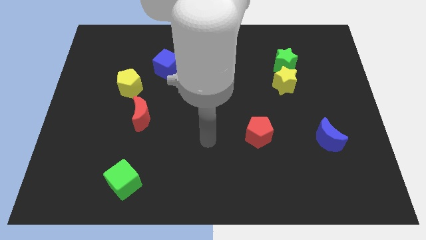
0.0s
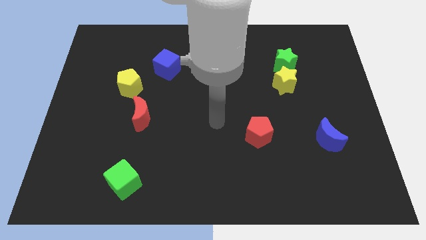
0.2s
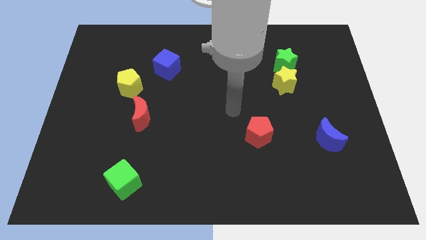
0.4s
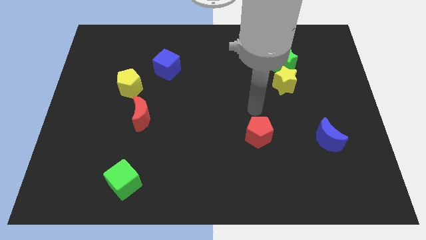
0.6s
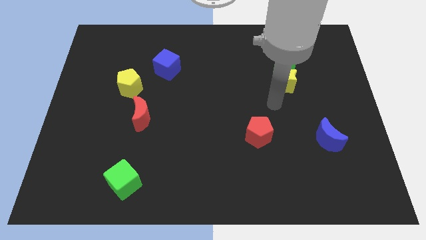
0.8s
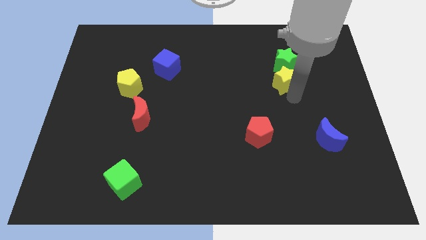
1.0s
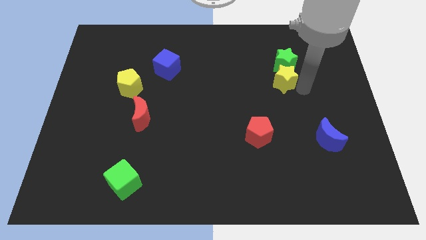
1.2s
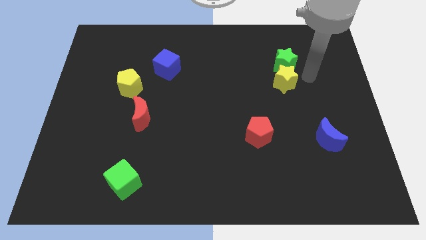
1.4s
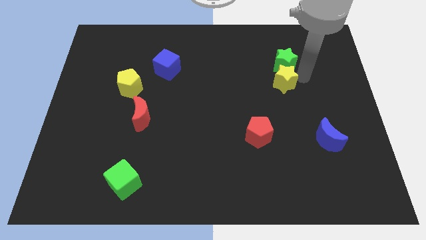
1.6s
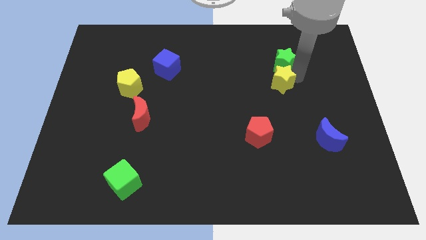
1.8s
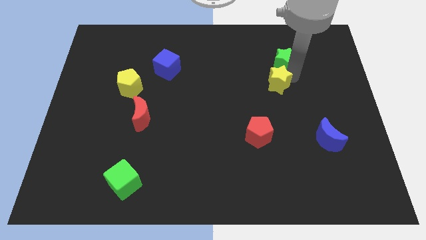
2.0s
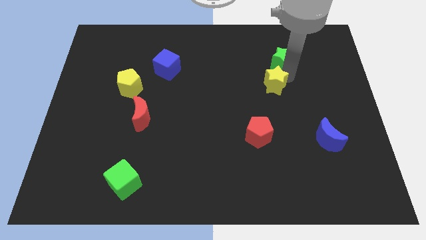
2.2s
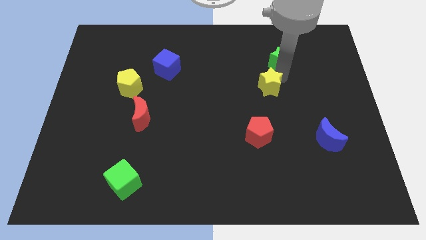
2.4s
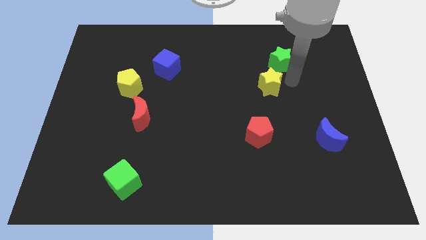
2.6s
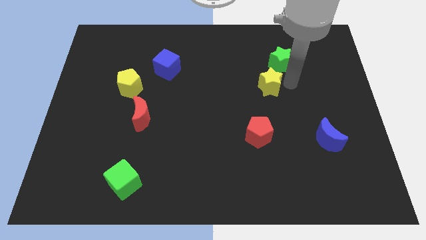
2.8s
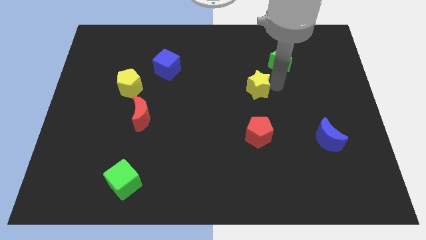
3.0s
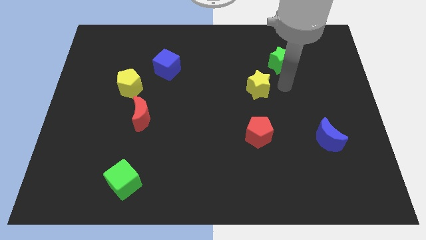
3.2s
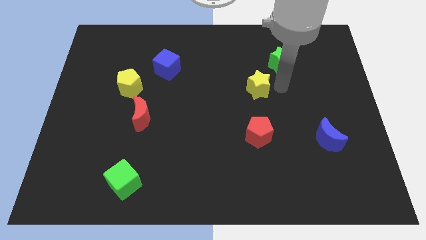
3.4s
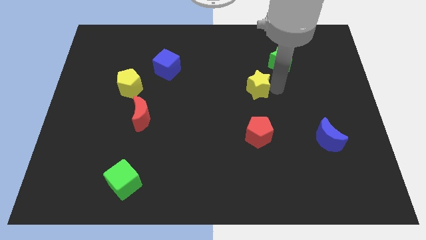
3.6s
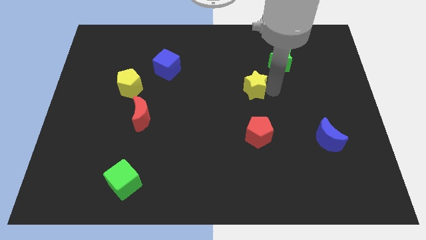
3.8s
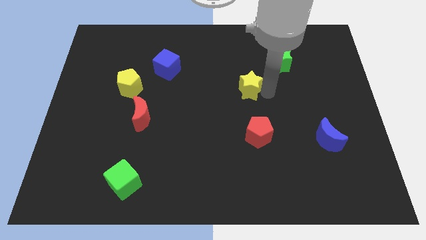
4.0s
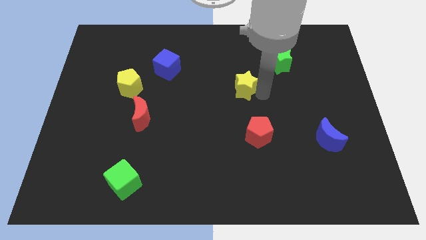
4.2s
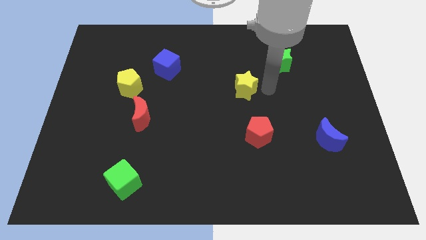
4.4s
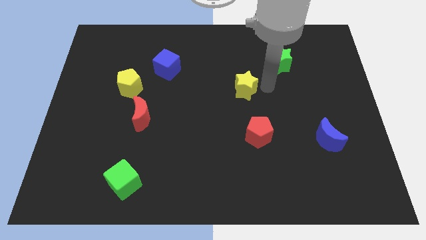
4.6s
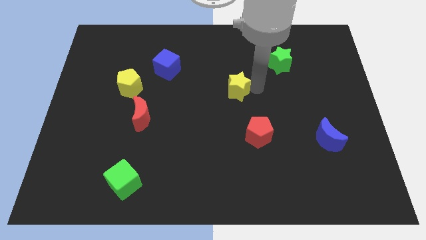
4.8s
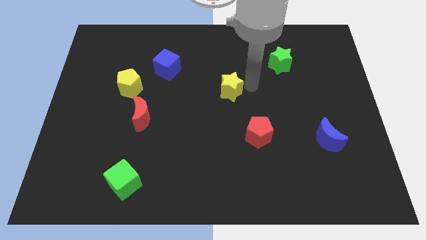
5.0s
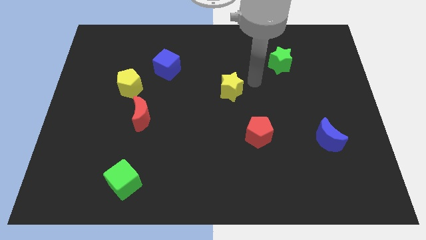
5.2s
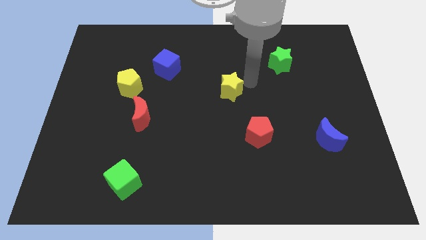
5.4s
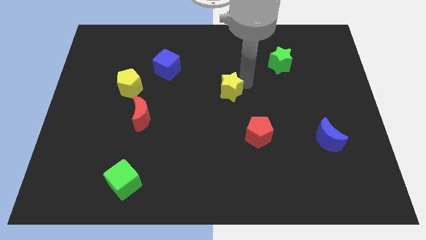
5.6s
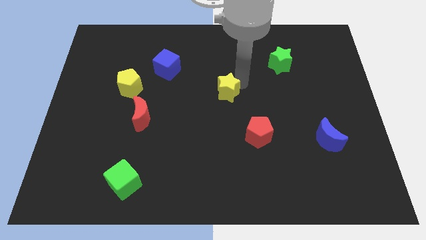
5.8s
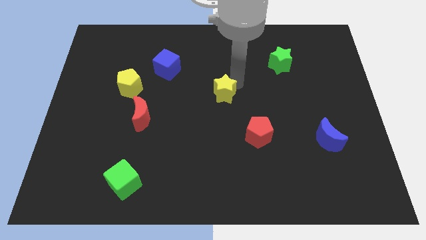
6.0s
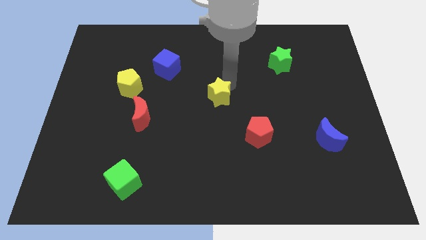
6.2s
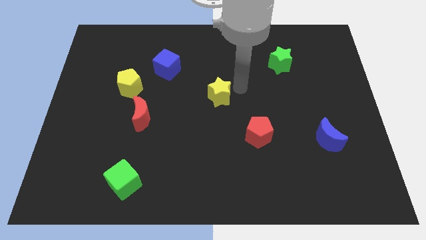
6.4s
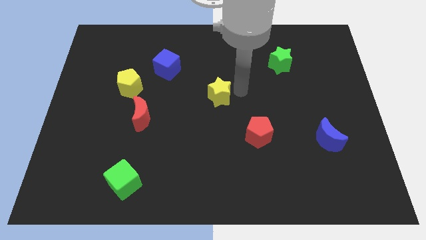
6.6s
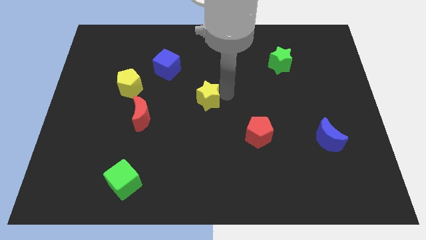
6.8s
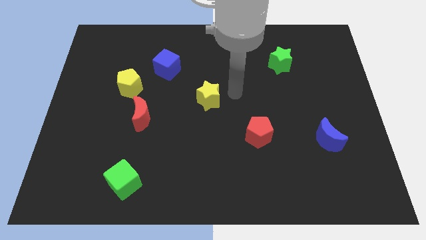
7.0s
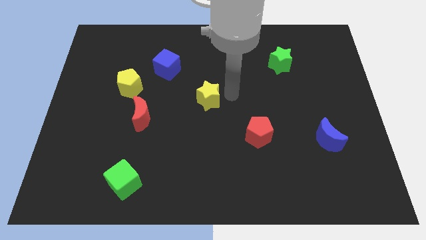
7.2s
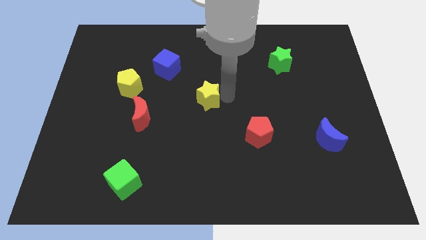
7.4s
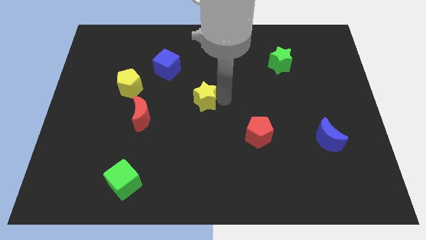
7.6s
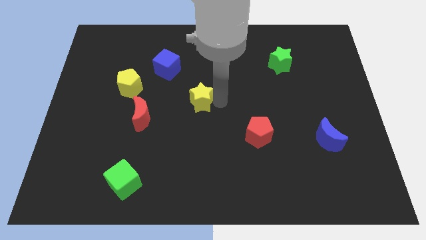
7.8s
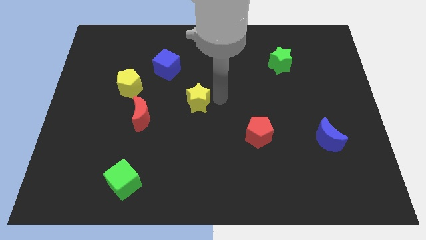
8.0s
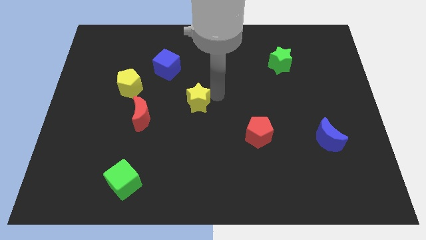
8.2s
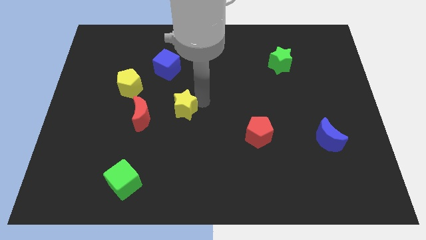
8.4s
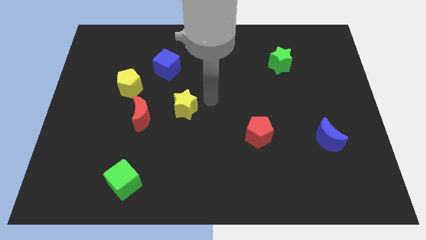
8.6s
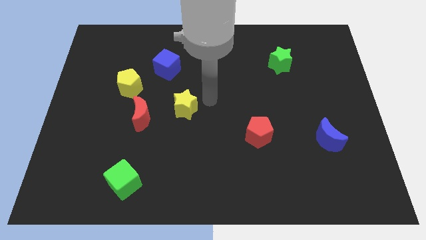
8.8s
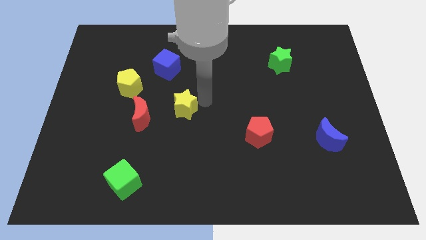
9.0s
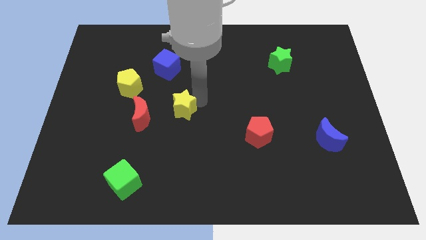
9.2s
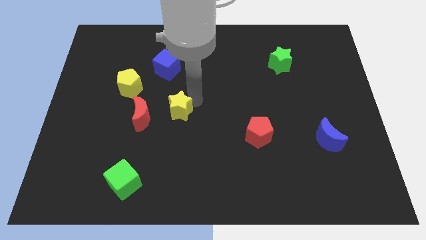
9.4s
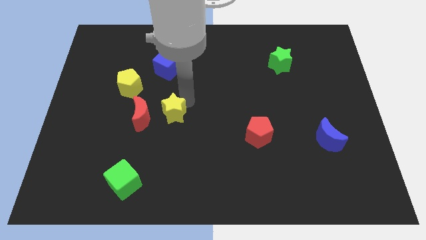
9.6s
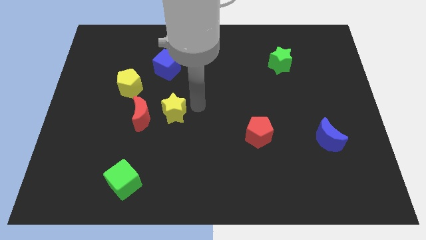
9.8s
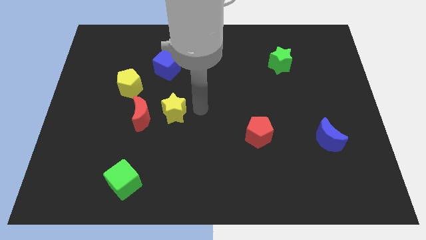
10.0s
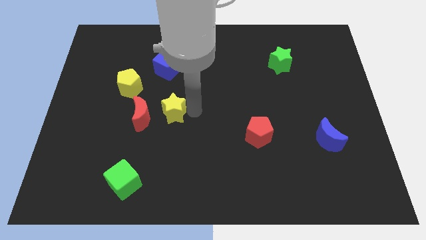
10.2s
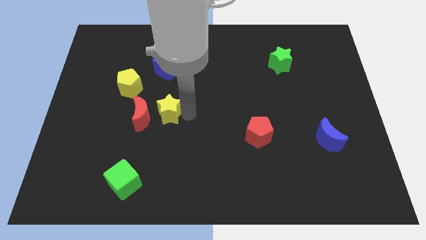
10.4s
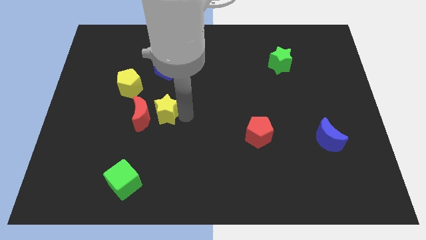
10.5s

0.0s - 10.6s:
push the yellow star close to the red moon

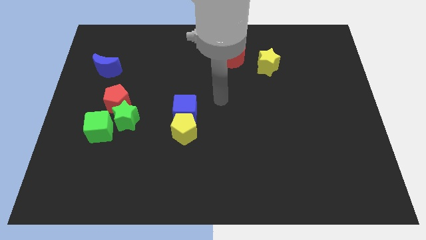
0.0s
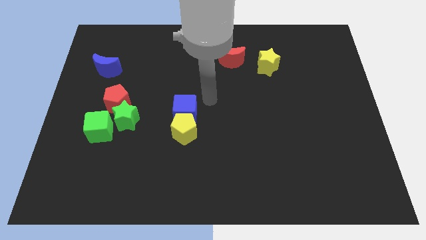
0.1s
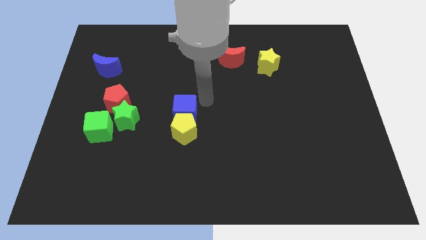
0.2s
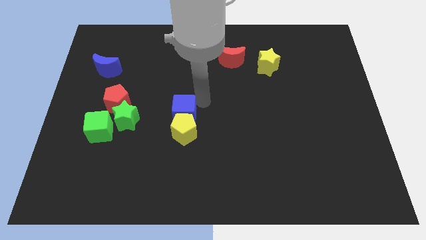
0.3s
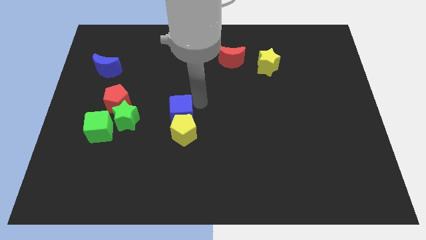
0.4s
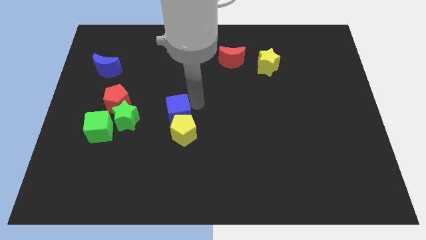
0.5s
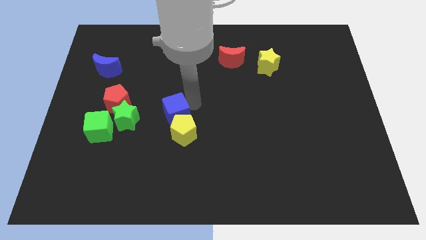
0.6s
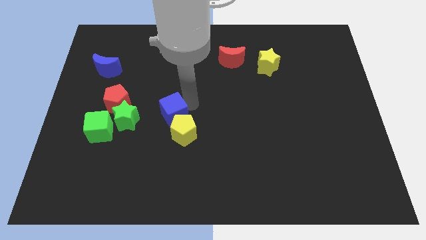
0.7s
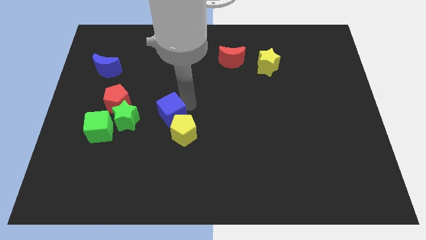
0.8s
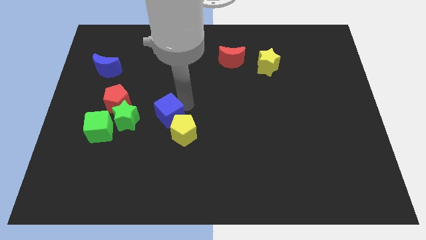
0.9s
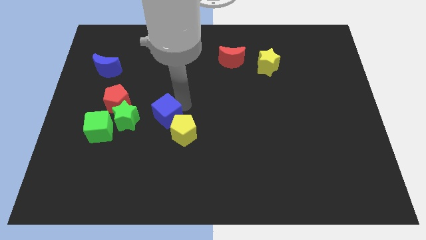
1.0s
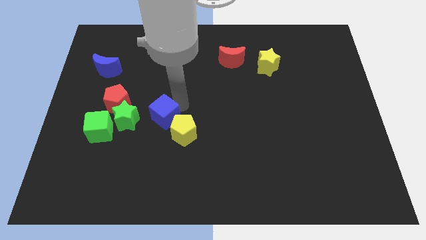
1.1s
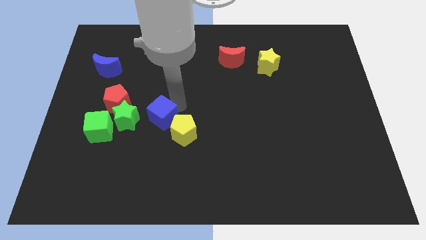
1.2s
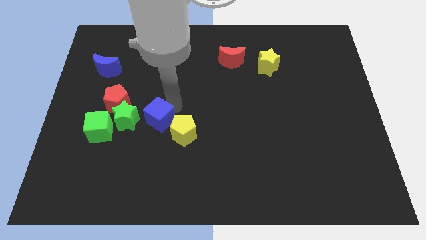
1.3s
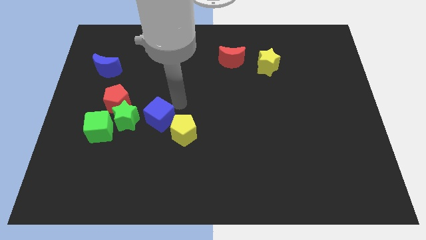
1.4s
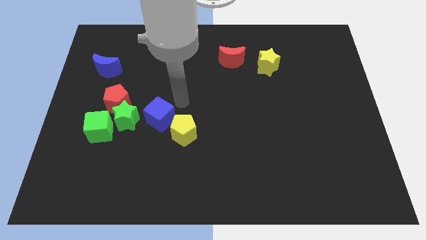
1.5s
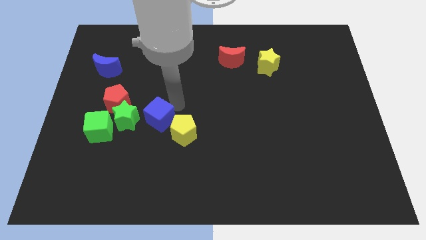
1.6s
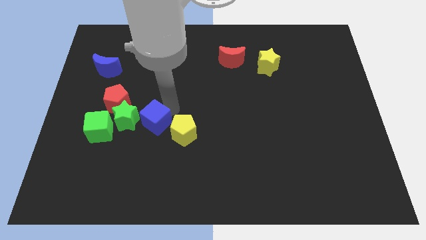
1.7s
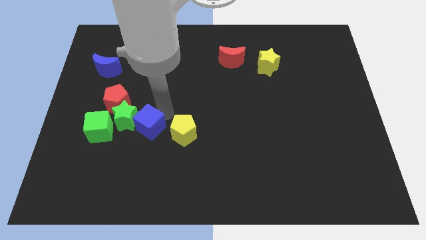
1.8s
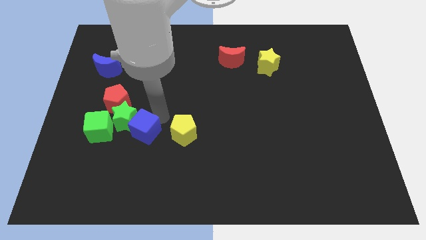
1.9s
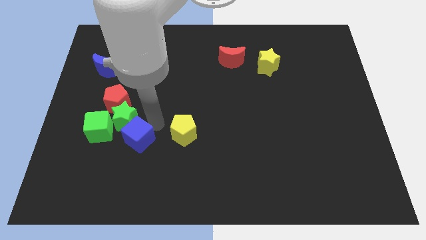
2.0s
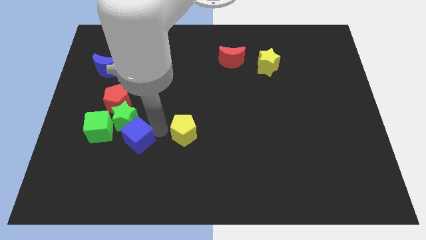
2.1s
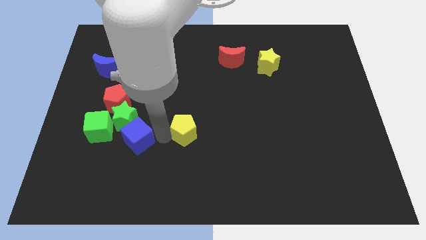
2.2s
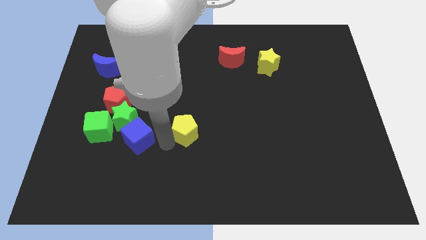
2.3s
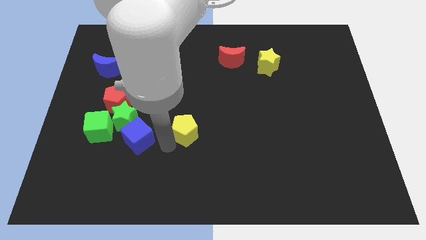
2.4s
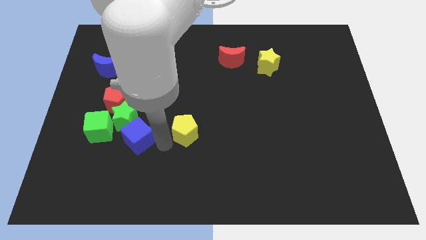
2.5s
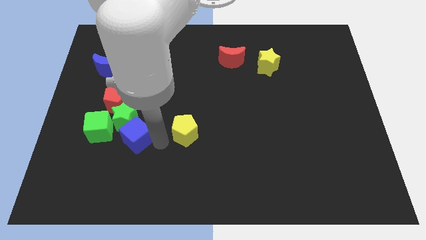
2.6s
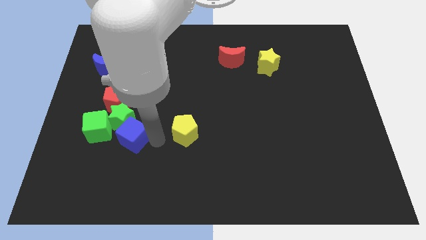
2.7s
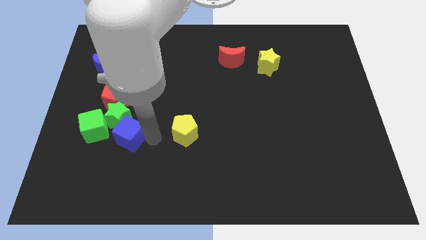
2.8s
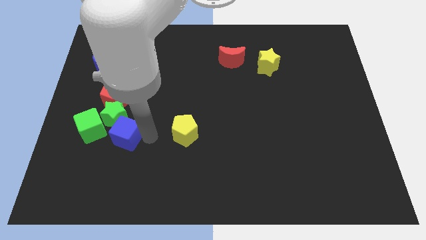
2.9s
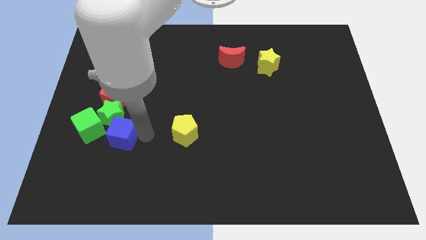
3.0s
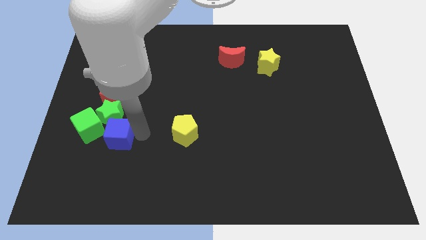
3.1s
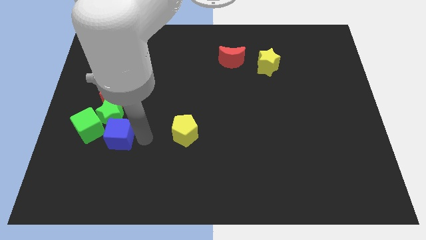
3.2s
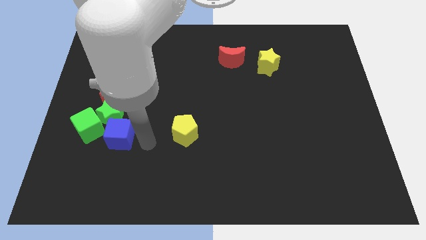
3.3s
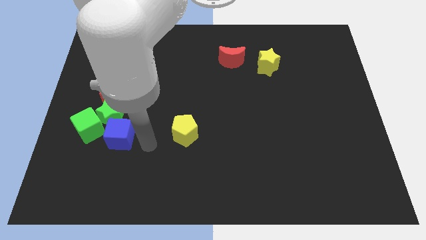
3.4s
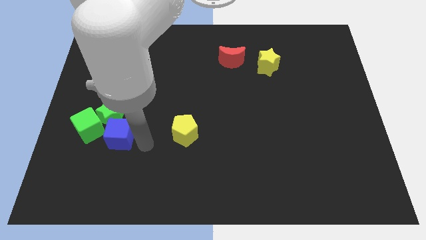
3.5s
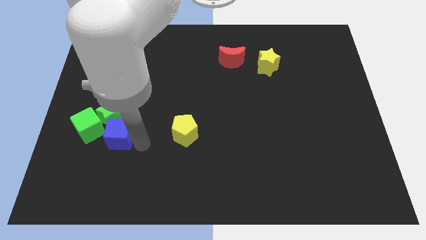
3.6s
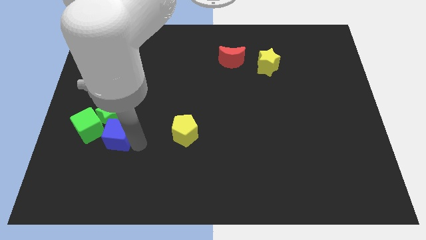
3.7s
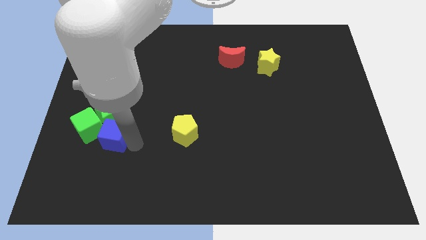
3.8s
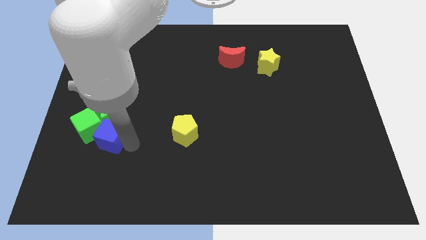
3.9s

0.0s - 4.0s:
move the blue cube close to the green cube
